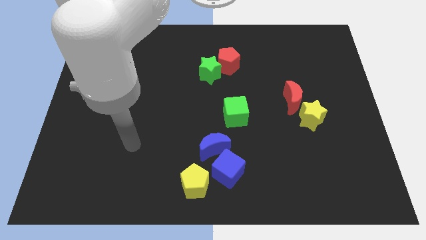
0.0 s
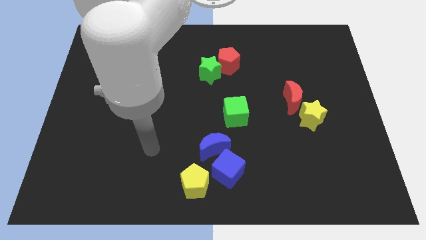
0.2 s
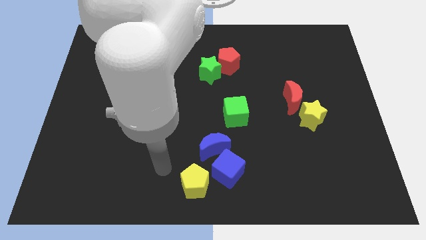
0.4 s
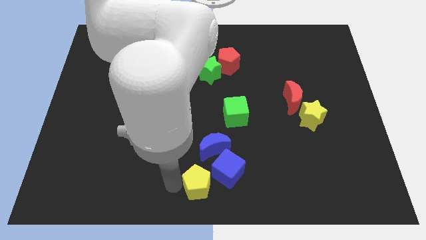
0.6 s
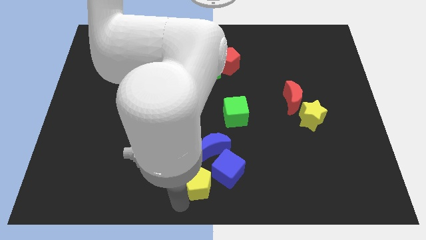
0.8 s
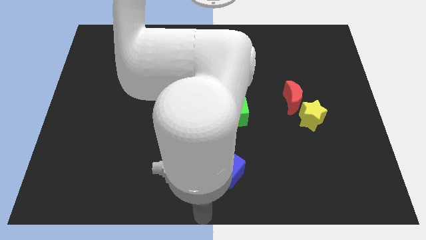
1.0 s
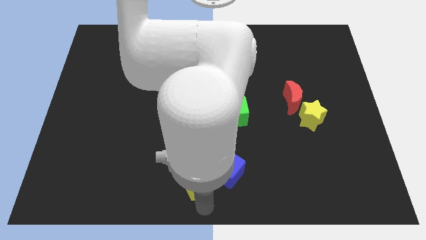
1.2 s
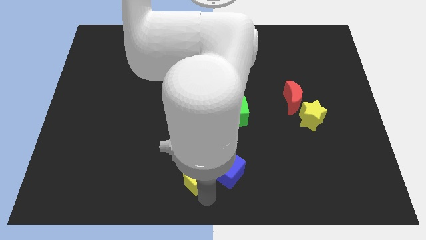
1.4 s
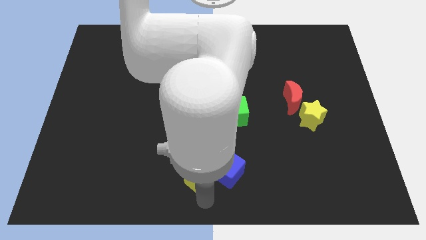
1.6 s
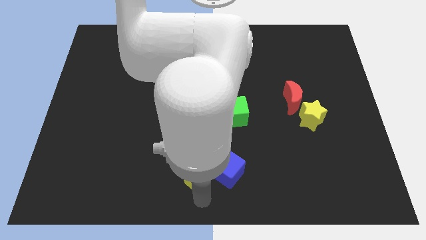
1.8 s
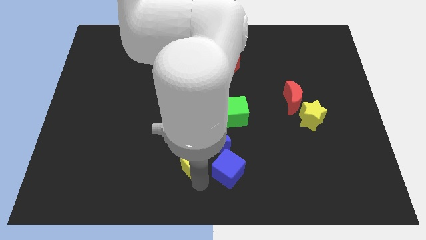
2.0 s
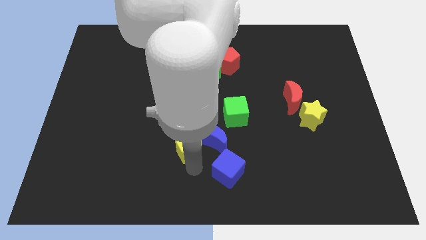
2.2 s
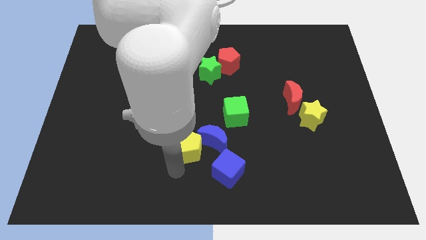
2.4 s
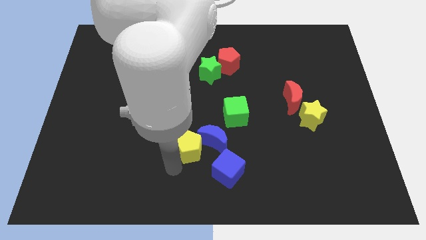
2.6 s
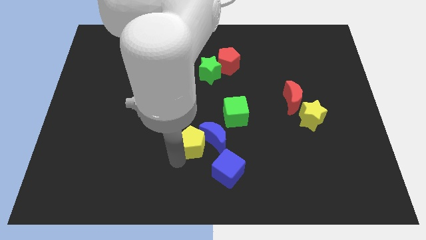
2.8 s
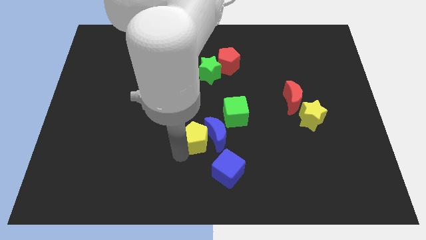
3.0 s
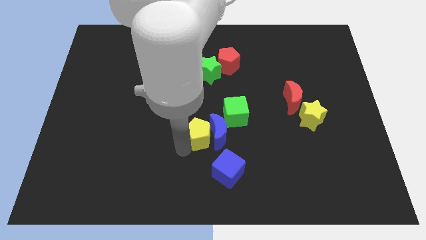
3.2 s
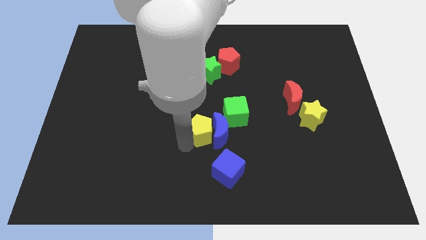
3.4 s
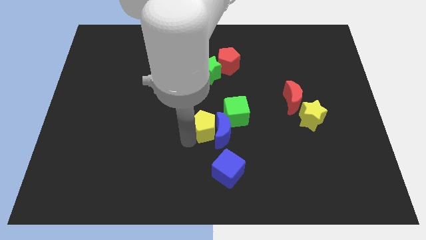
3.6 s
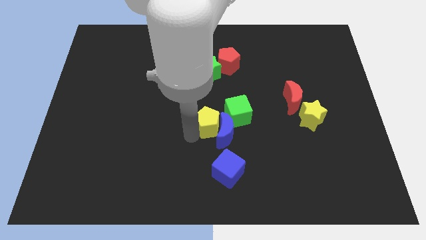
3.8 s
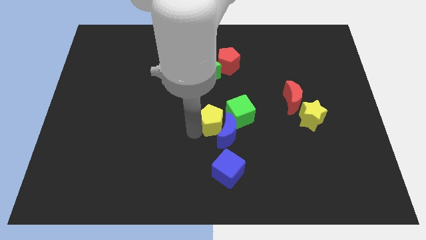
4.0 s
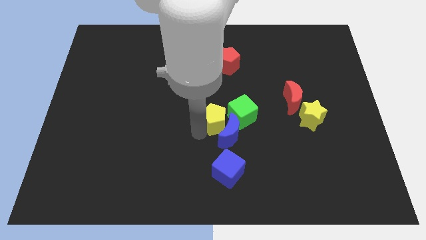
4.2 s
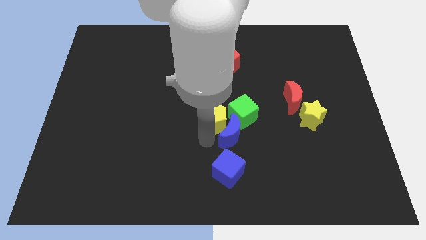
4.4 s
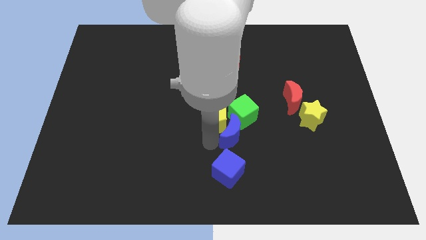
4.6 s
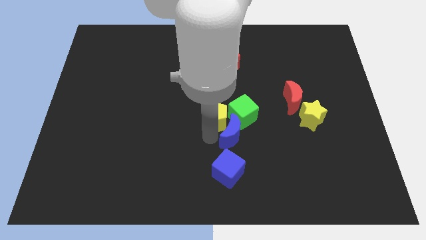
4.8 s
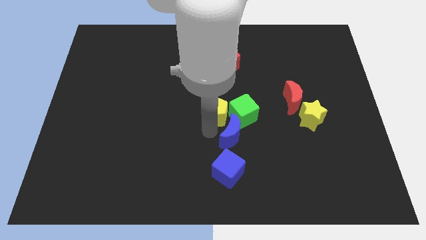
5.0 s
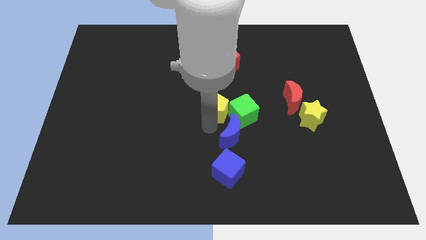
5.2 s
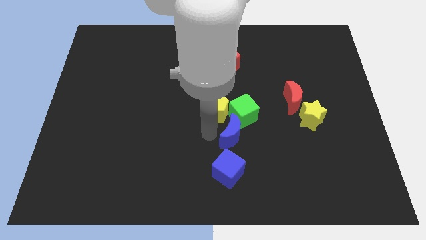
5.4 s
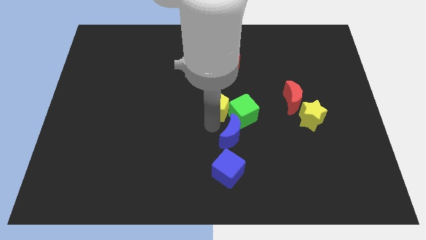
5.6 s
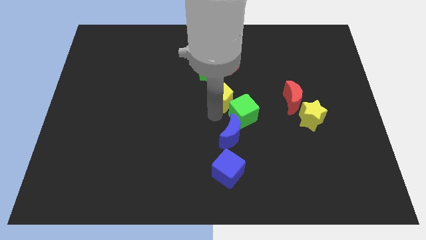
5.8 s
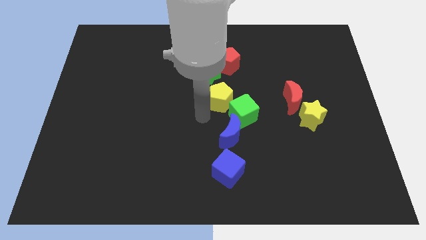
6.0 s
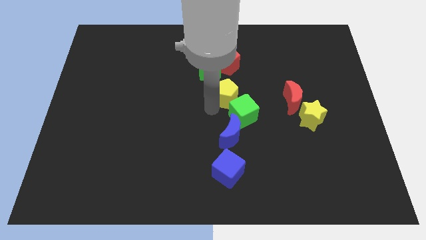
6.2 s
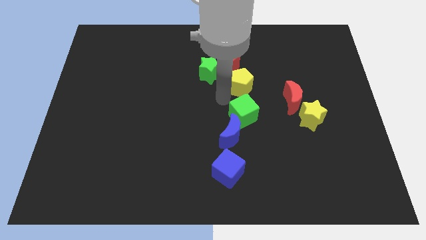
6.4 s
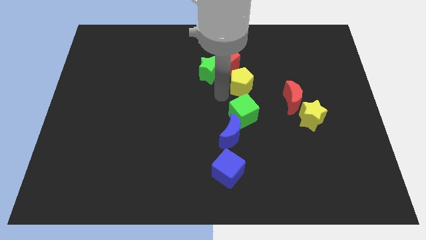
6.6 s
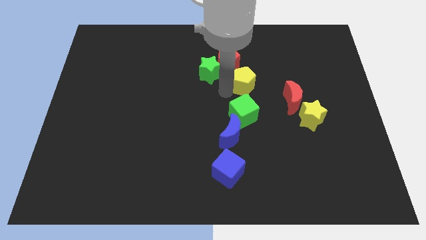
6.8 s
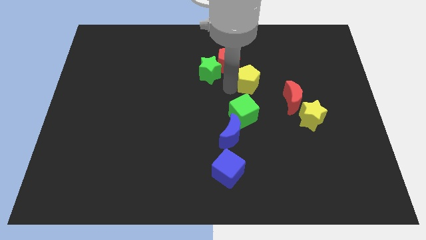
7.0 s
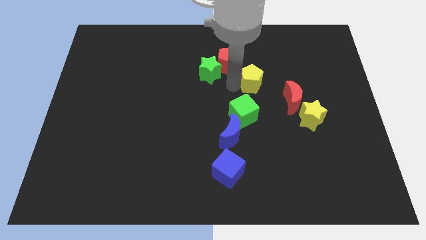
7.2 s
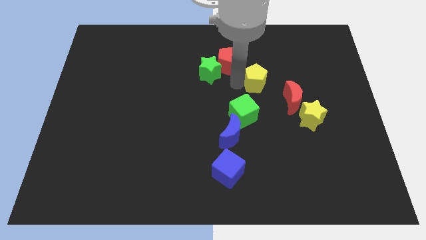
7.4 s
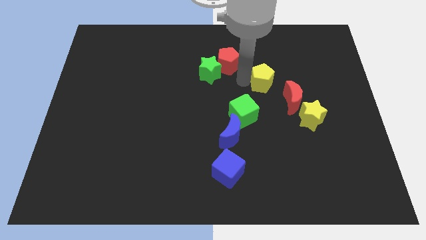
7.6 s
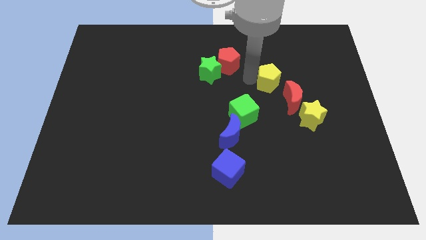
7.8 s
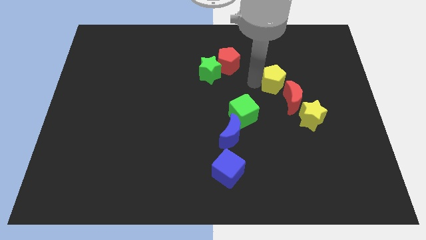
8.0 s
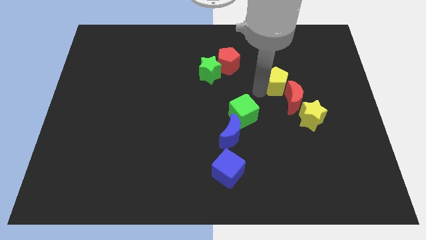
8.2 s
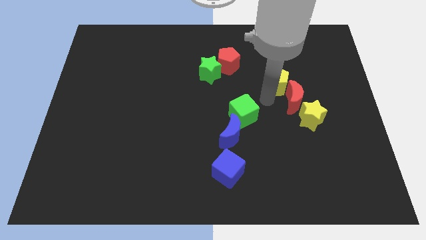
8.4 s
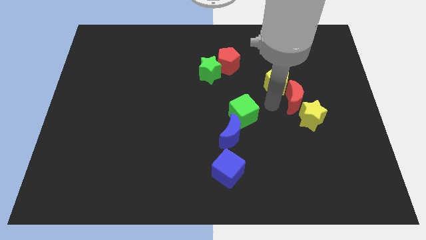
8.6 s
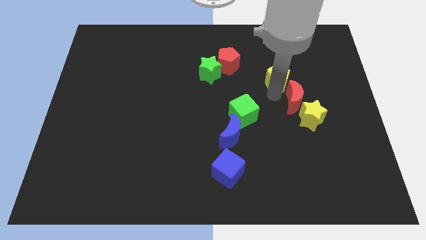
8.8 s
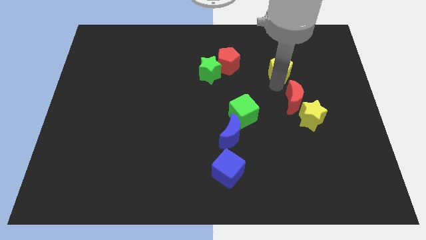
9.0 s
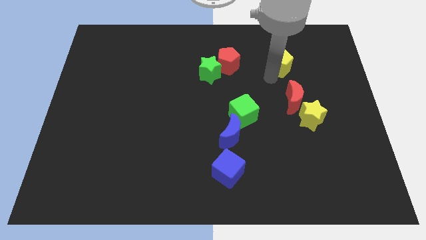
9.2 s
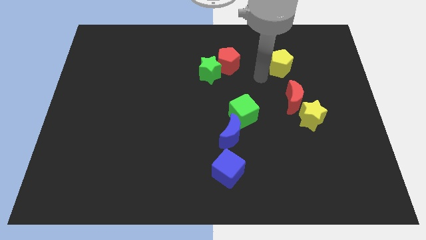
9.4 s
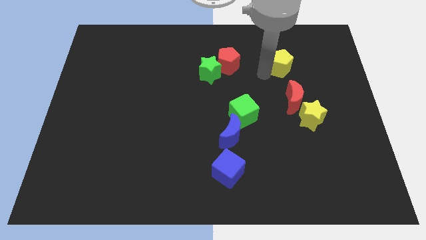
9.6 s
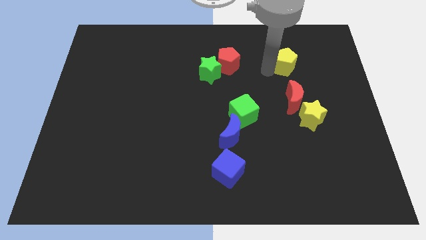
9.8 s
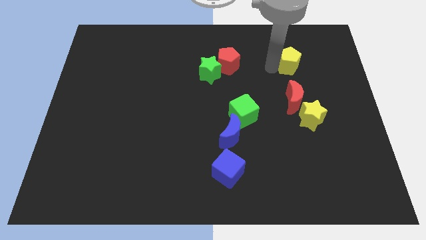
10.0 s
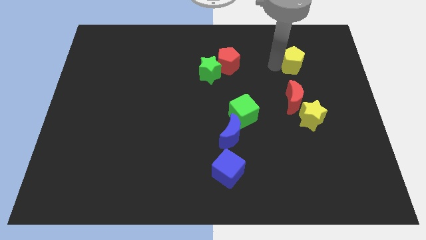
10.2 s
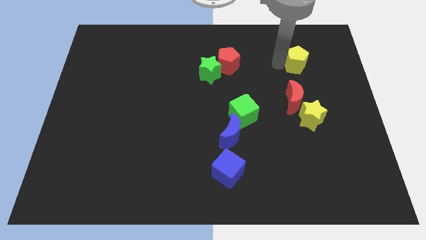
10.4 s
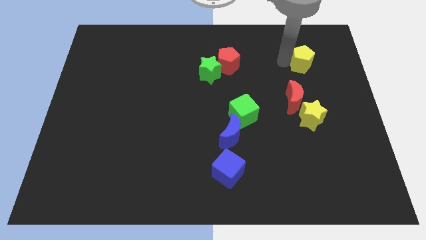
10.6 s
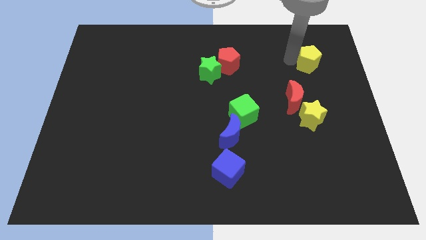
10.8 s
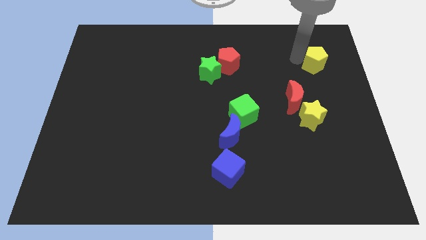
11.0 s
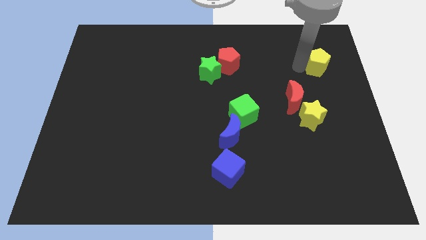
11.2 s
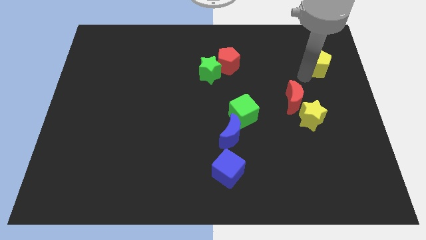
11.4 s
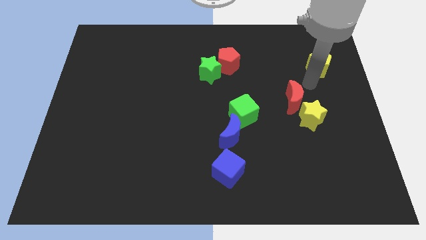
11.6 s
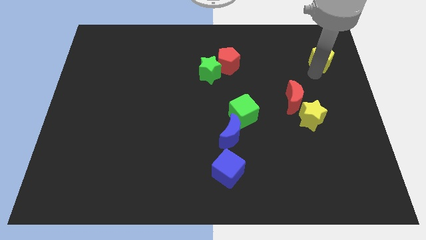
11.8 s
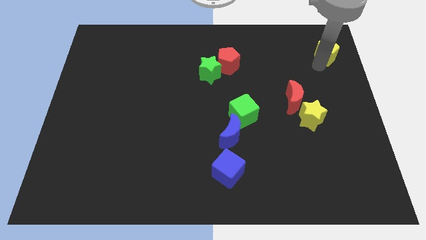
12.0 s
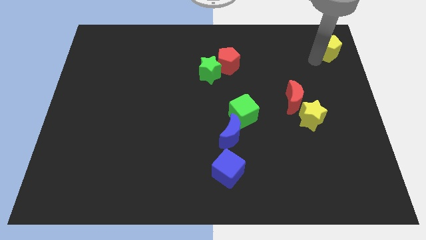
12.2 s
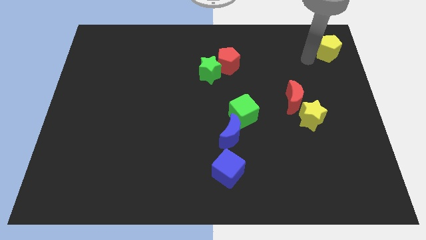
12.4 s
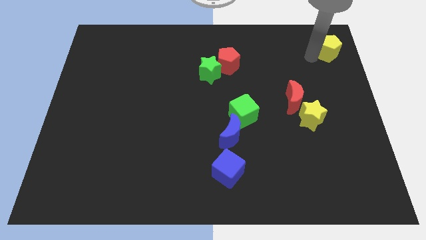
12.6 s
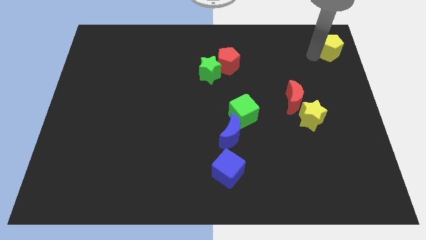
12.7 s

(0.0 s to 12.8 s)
slide the yellow pentagon to the top right of the board
